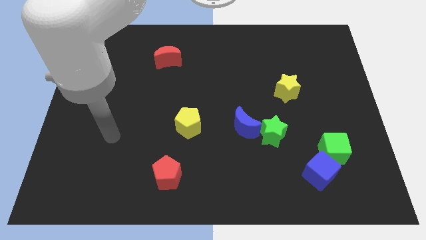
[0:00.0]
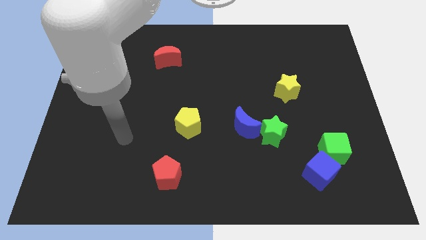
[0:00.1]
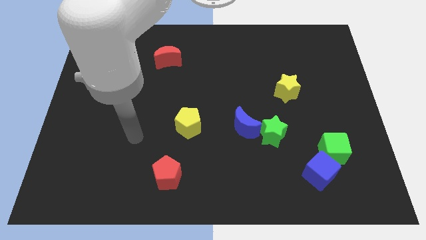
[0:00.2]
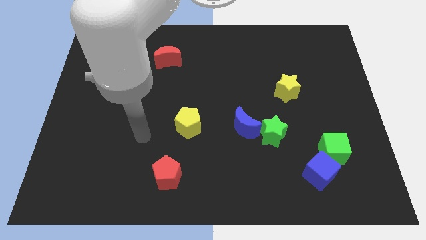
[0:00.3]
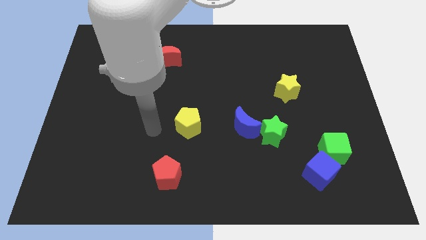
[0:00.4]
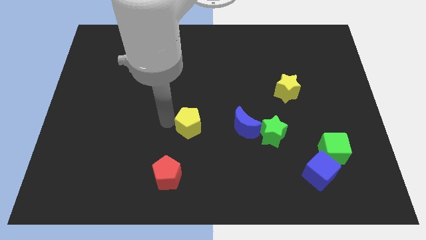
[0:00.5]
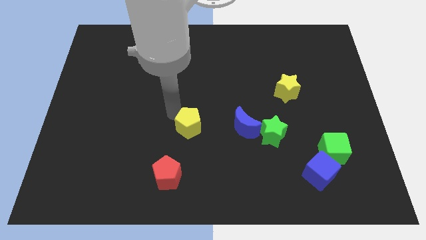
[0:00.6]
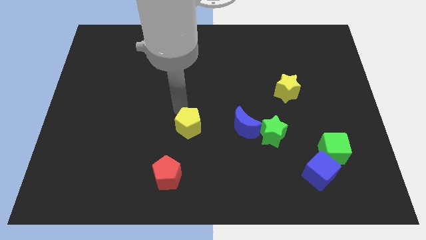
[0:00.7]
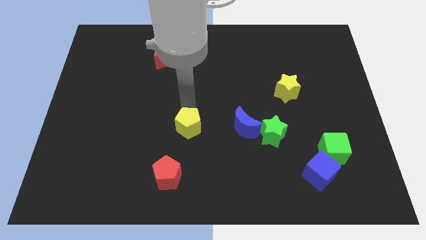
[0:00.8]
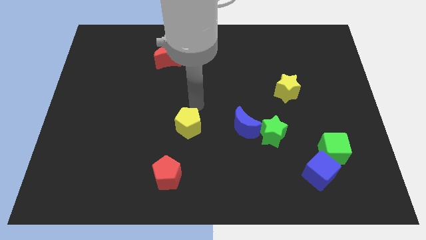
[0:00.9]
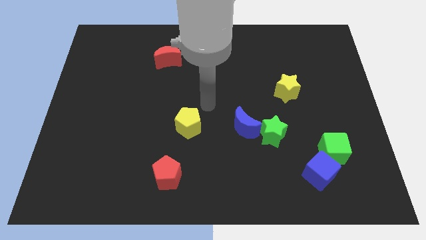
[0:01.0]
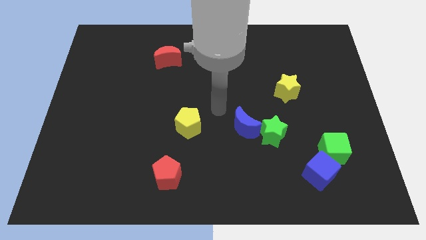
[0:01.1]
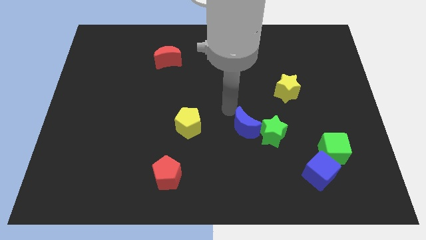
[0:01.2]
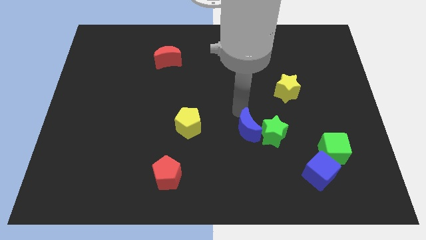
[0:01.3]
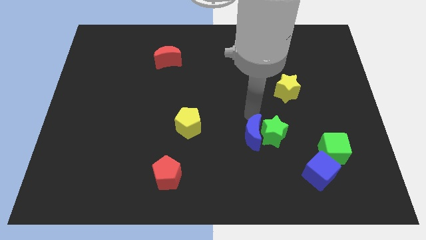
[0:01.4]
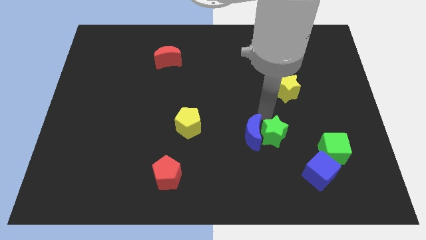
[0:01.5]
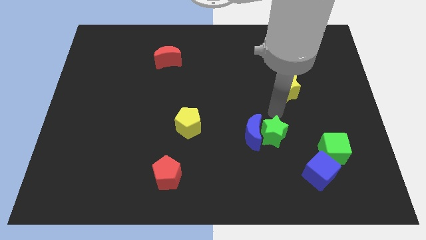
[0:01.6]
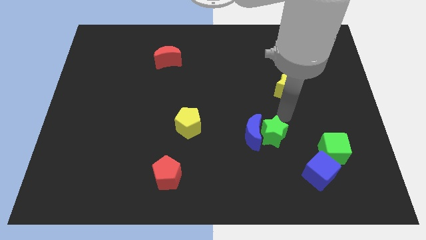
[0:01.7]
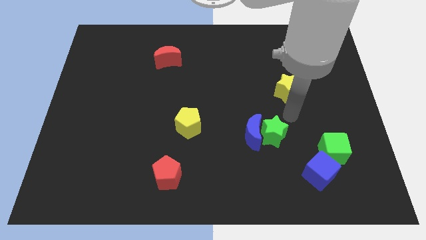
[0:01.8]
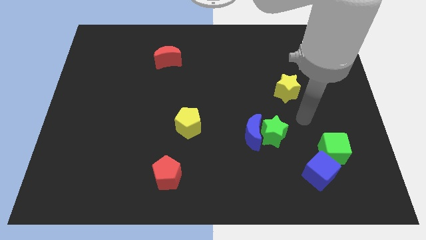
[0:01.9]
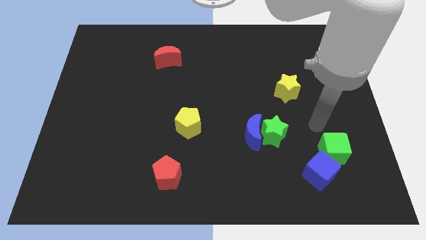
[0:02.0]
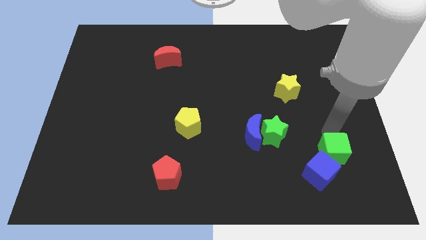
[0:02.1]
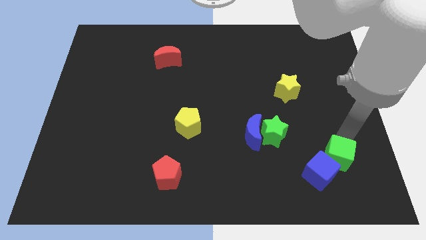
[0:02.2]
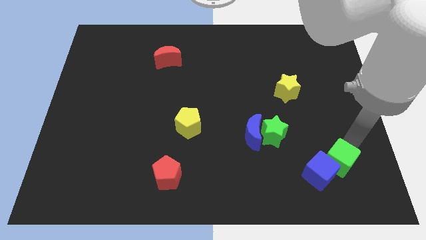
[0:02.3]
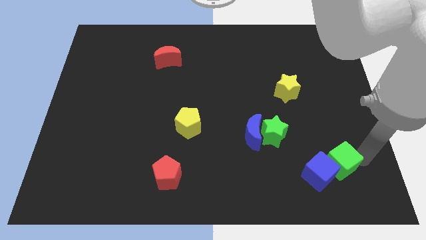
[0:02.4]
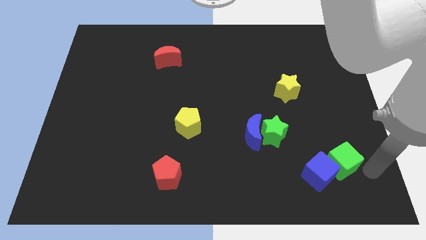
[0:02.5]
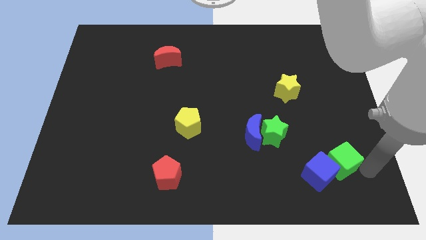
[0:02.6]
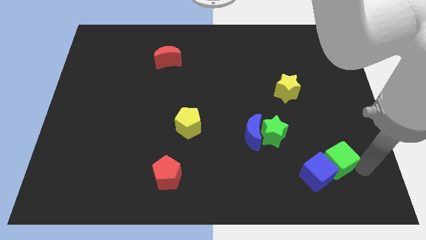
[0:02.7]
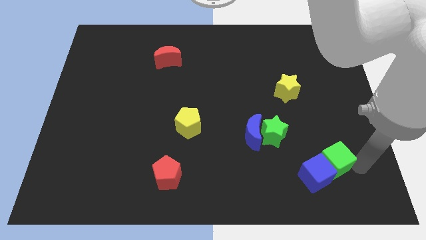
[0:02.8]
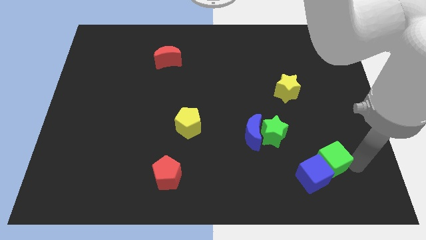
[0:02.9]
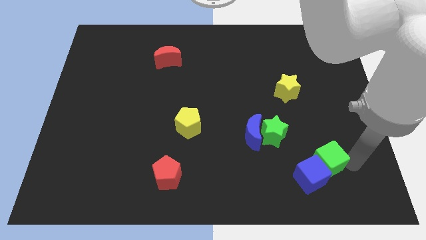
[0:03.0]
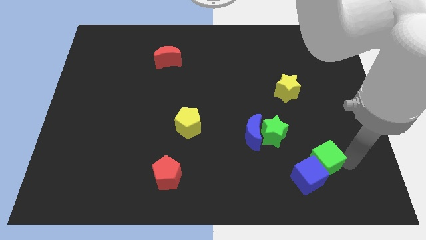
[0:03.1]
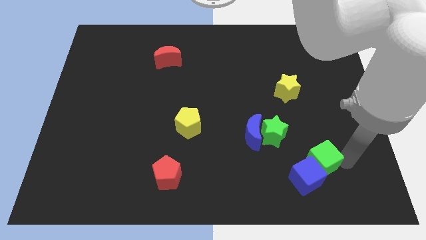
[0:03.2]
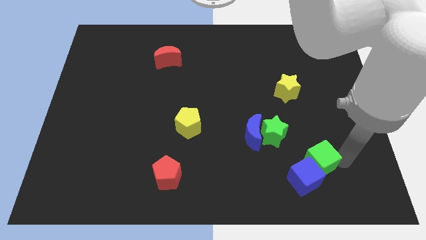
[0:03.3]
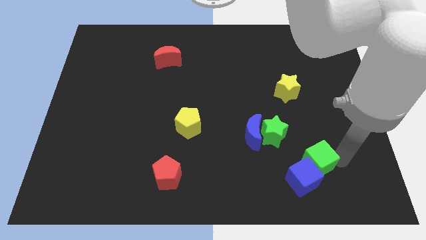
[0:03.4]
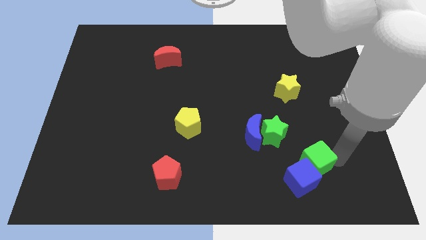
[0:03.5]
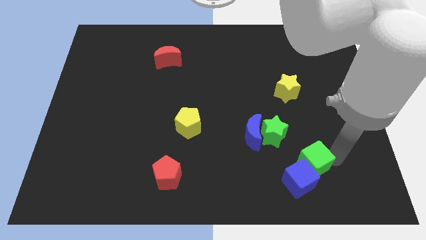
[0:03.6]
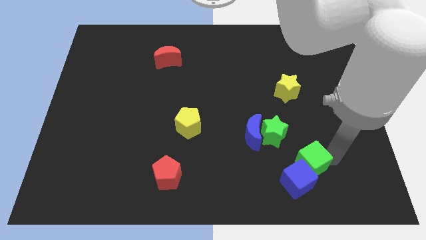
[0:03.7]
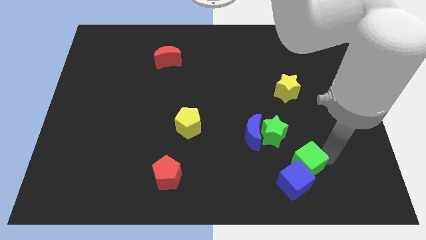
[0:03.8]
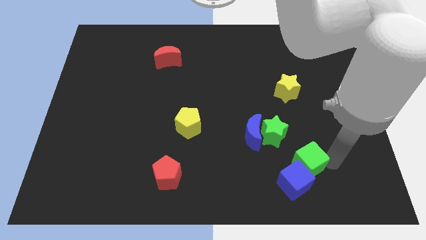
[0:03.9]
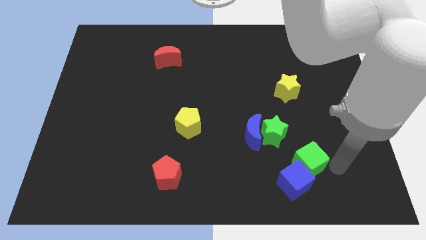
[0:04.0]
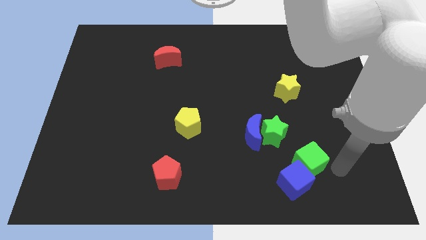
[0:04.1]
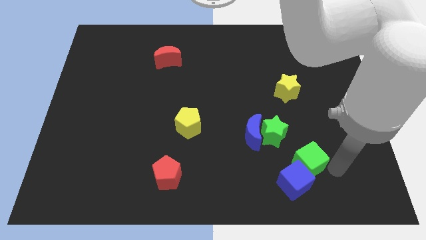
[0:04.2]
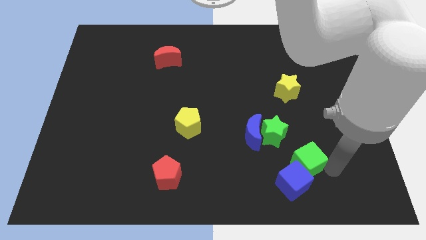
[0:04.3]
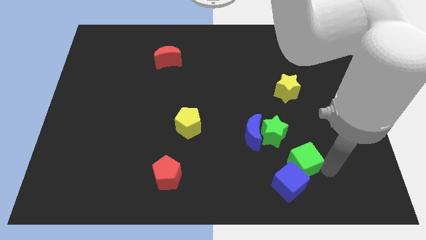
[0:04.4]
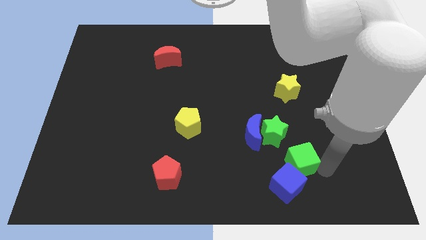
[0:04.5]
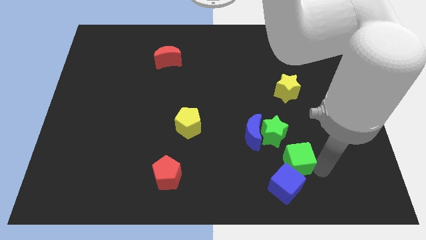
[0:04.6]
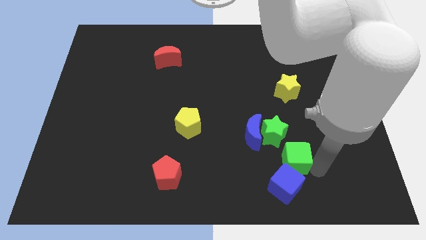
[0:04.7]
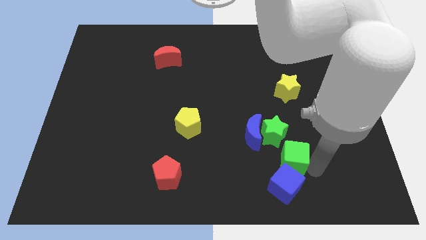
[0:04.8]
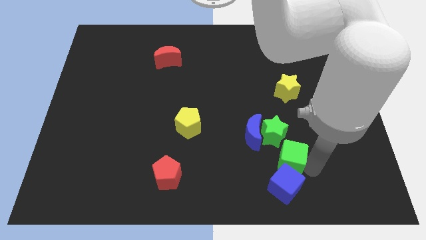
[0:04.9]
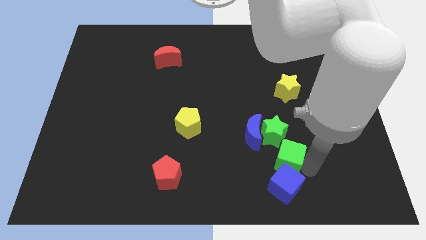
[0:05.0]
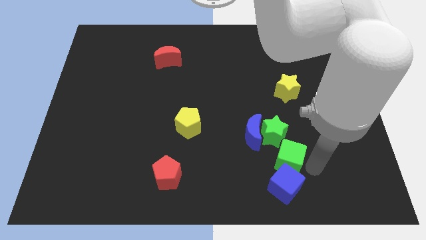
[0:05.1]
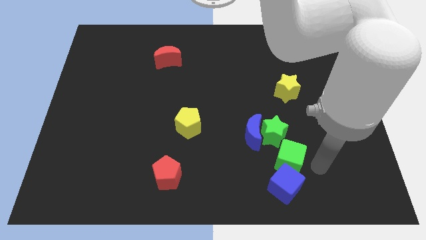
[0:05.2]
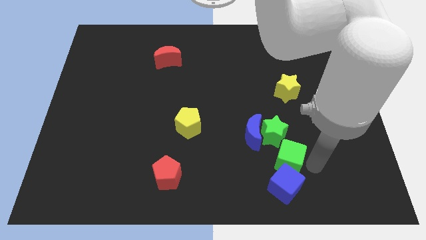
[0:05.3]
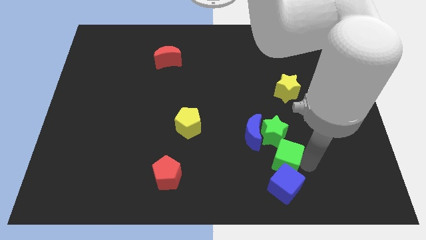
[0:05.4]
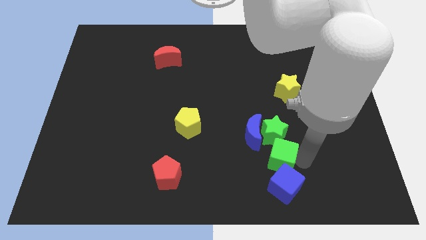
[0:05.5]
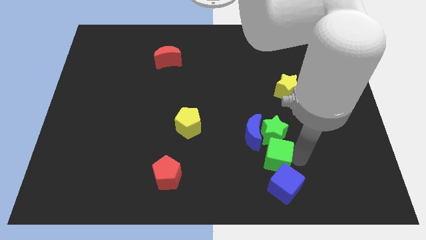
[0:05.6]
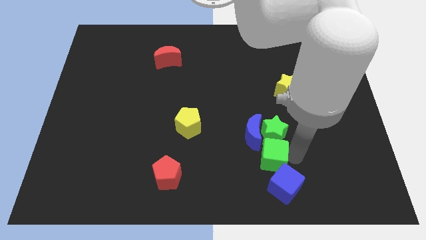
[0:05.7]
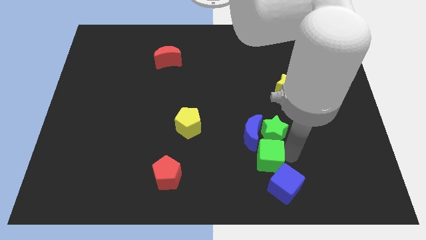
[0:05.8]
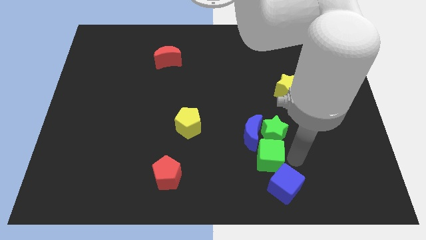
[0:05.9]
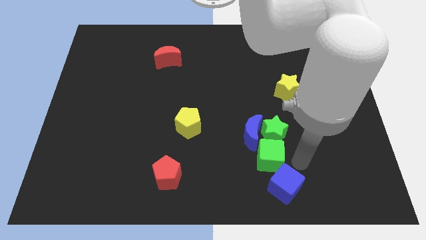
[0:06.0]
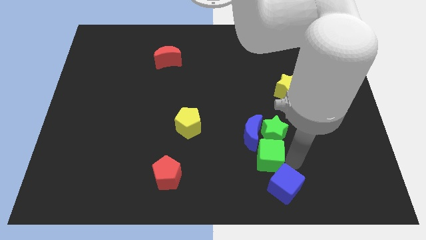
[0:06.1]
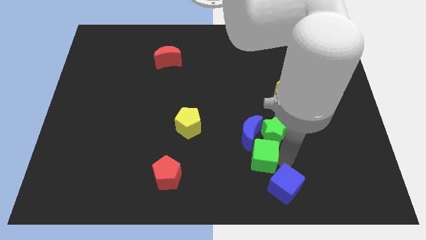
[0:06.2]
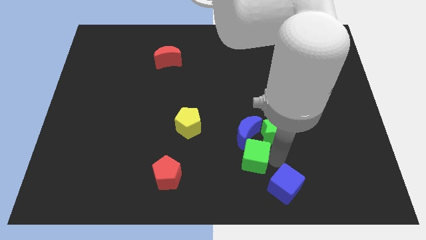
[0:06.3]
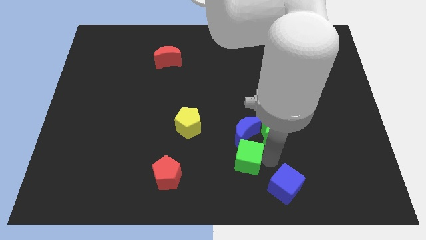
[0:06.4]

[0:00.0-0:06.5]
put the green cube to the bottom left side of the blue moon

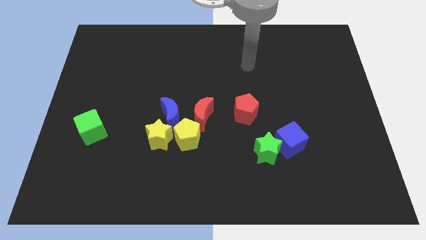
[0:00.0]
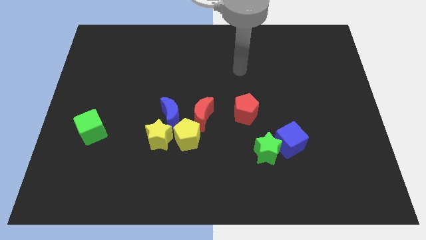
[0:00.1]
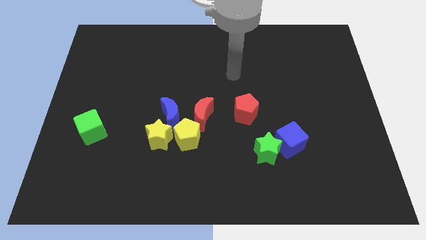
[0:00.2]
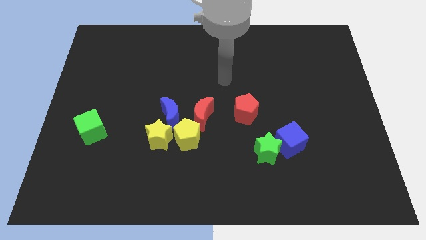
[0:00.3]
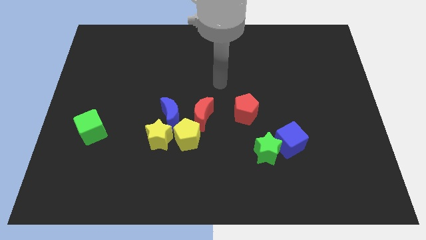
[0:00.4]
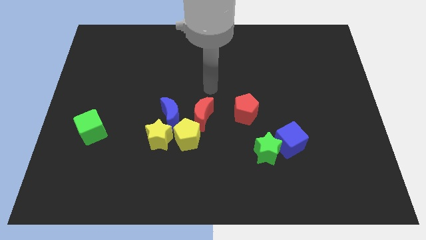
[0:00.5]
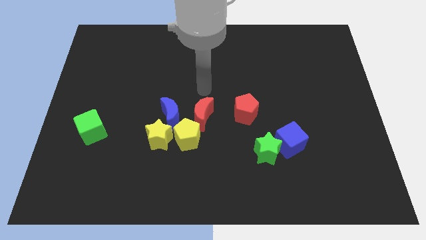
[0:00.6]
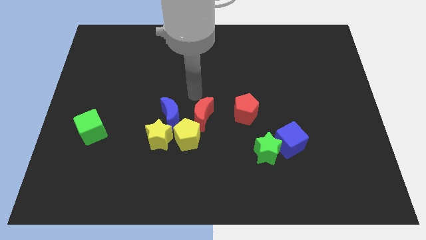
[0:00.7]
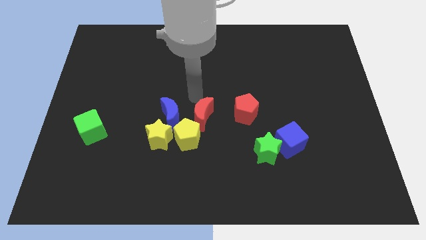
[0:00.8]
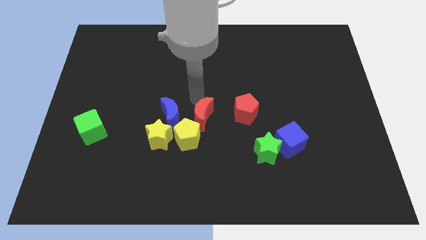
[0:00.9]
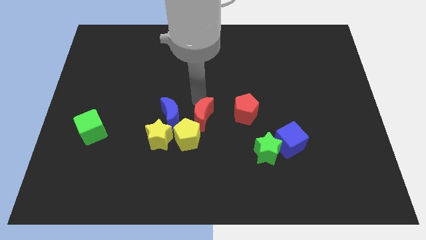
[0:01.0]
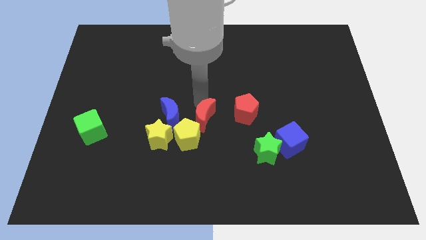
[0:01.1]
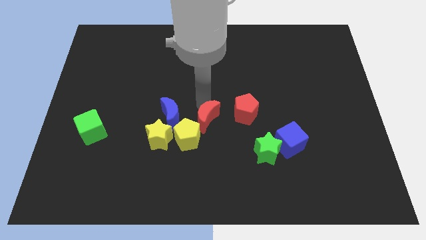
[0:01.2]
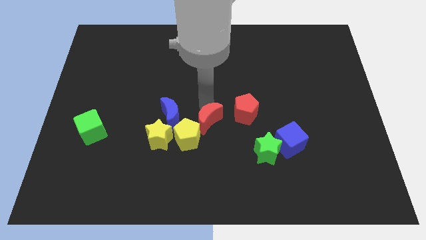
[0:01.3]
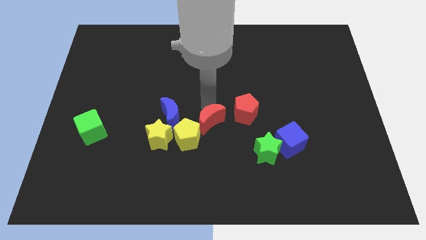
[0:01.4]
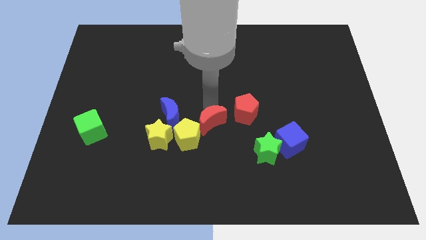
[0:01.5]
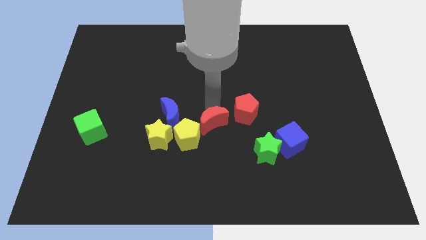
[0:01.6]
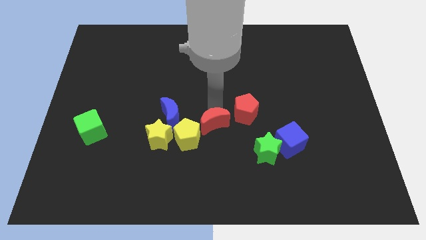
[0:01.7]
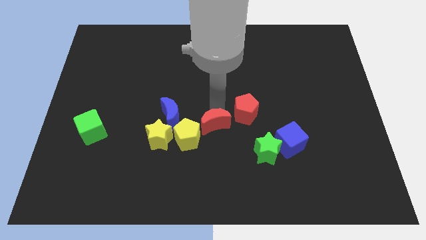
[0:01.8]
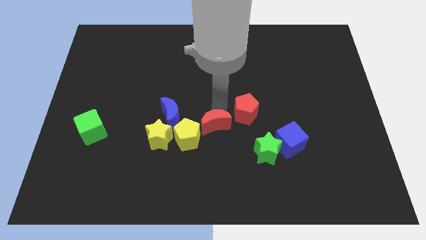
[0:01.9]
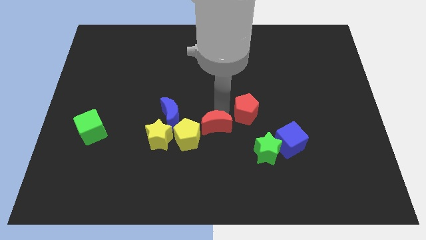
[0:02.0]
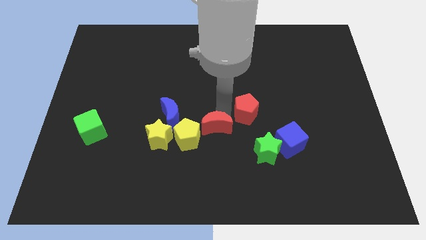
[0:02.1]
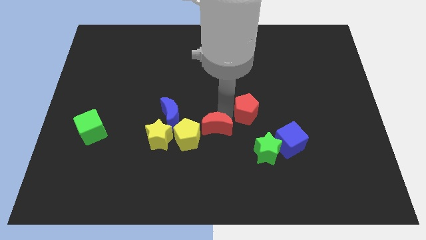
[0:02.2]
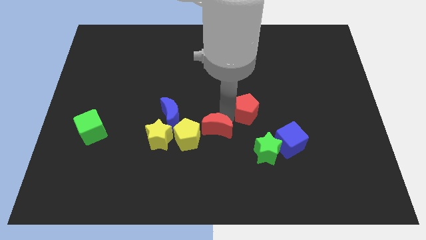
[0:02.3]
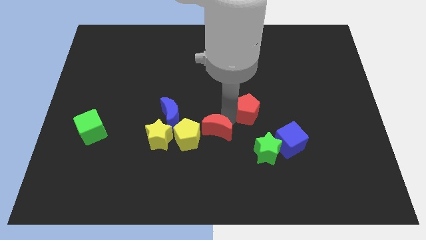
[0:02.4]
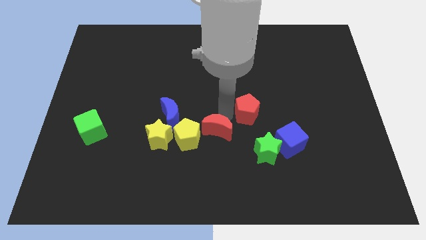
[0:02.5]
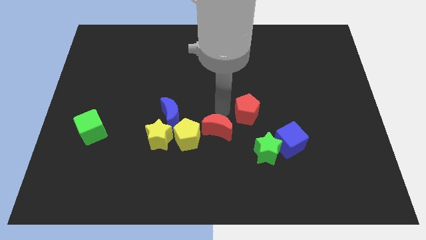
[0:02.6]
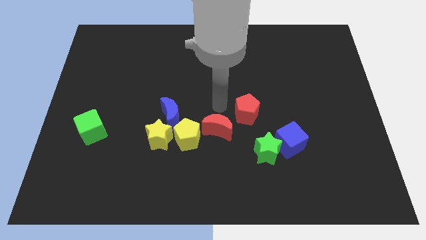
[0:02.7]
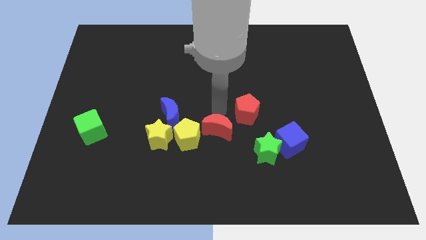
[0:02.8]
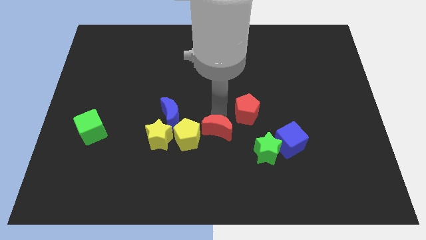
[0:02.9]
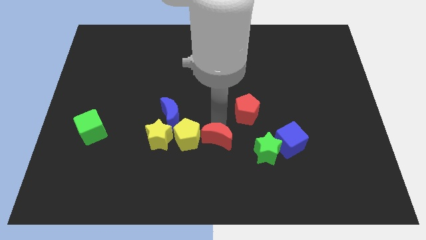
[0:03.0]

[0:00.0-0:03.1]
push the red moon left of the green star
